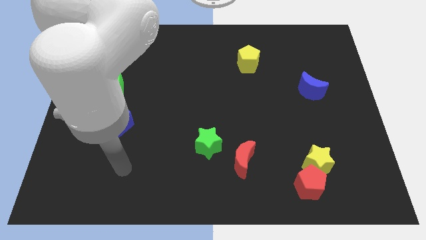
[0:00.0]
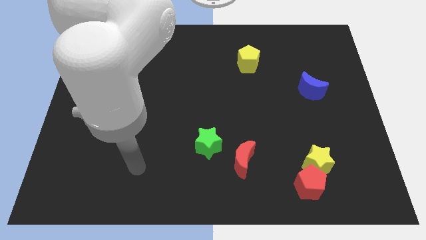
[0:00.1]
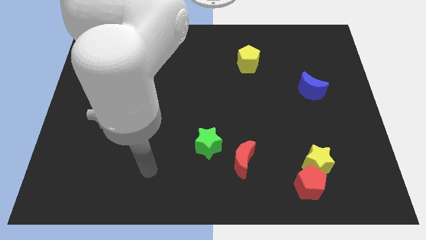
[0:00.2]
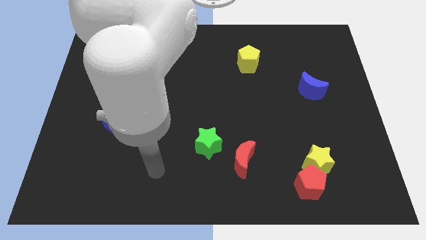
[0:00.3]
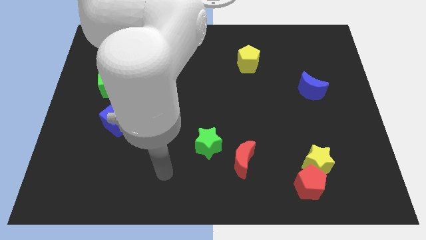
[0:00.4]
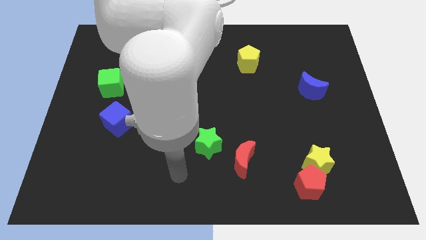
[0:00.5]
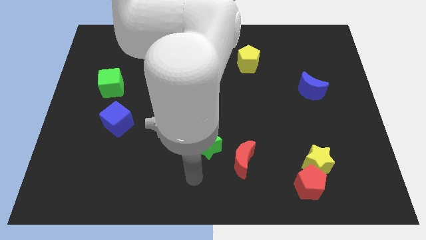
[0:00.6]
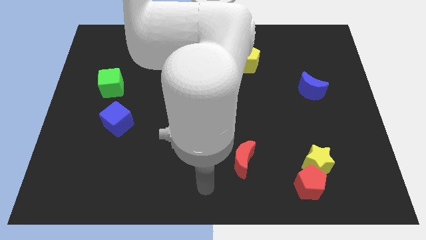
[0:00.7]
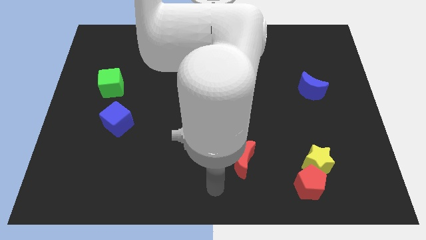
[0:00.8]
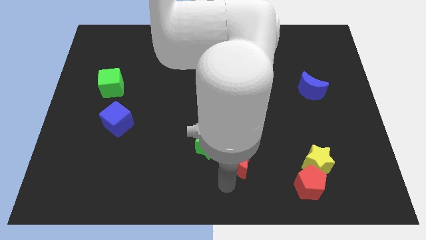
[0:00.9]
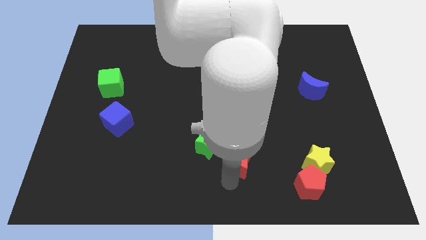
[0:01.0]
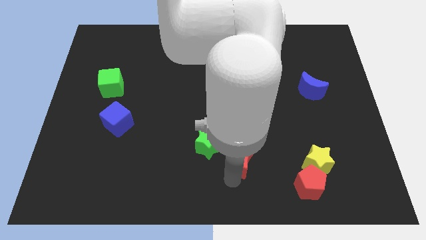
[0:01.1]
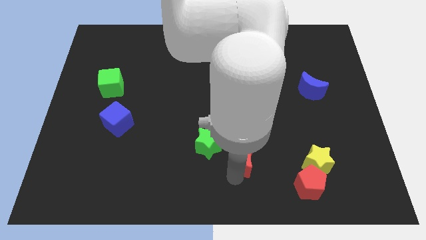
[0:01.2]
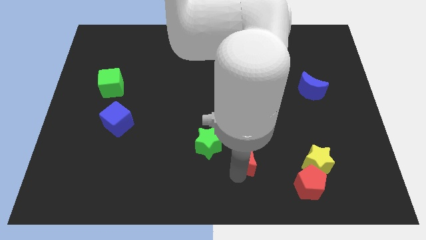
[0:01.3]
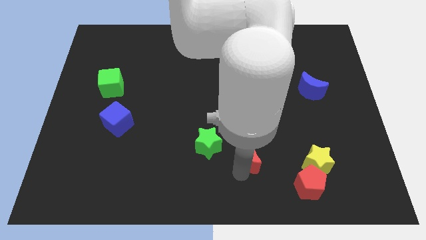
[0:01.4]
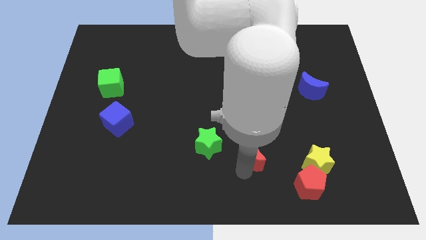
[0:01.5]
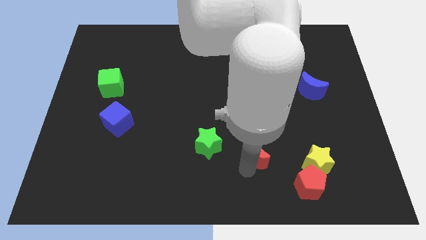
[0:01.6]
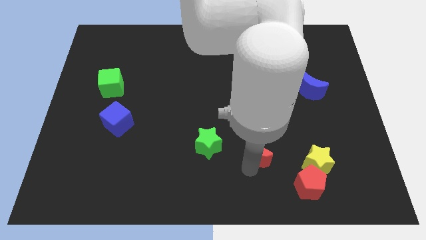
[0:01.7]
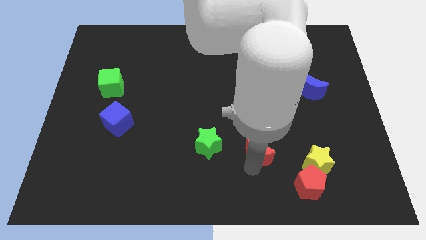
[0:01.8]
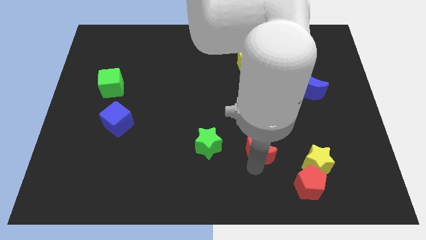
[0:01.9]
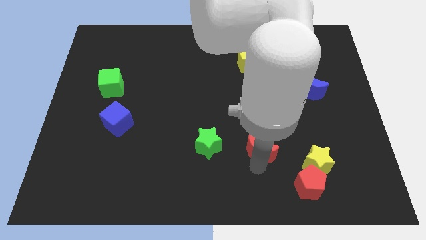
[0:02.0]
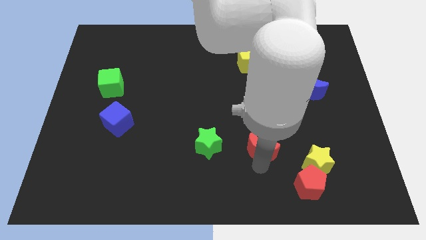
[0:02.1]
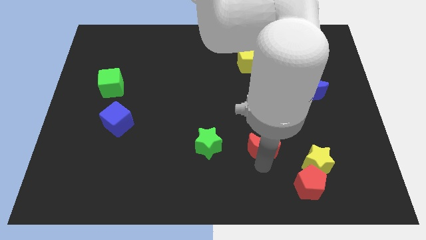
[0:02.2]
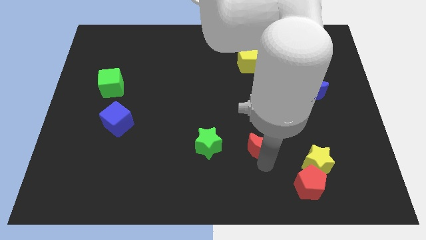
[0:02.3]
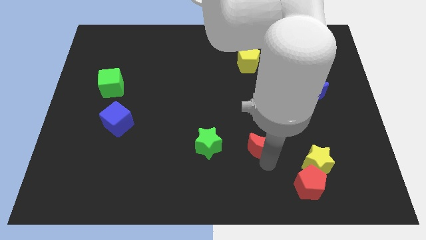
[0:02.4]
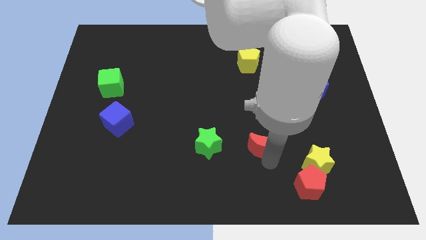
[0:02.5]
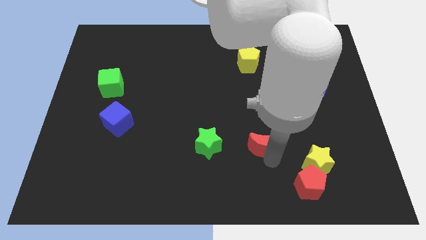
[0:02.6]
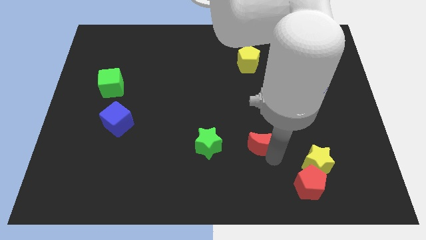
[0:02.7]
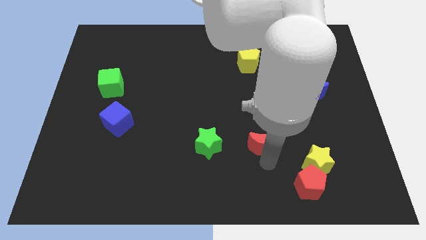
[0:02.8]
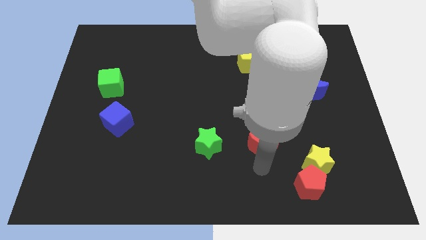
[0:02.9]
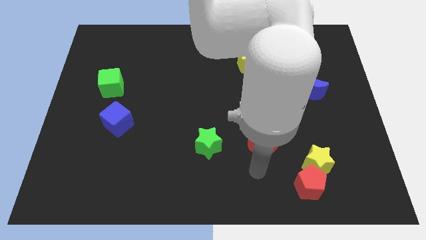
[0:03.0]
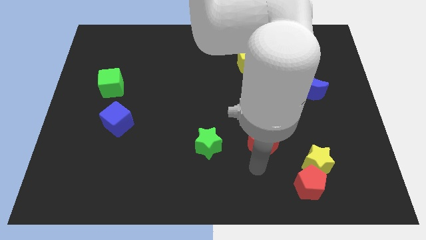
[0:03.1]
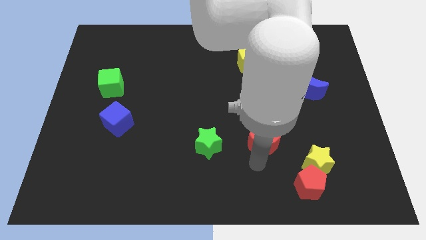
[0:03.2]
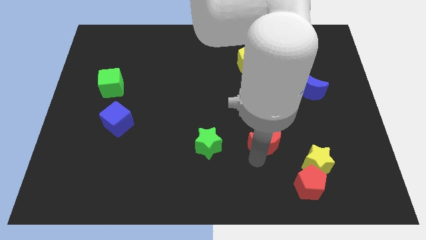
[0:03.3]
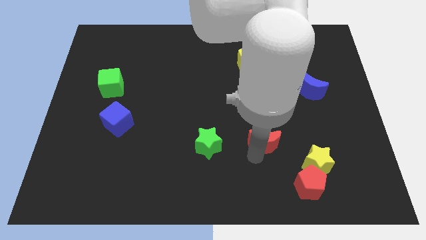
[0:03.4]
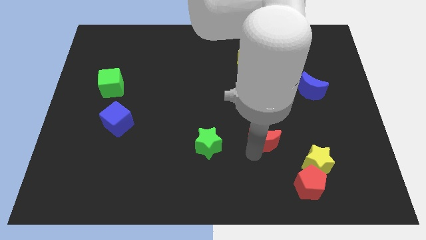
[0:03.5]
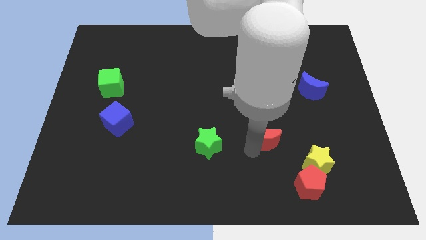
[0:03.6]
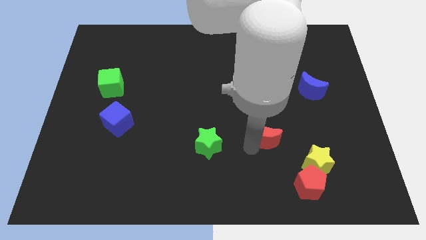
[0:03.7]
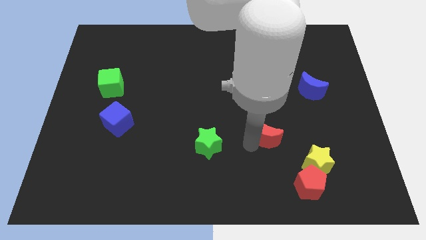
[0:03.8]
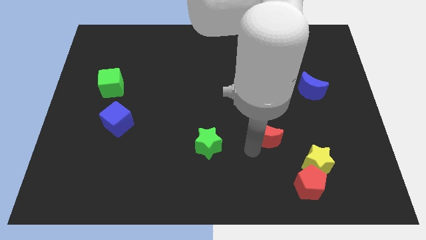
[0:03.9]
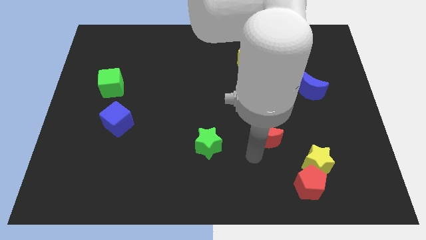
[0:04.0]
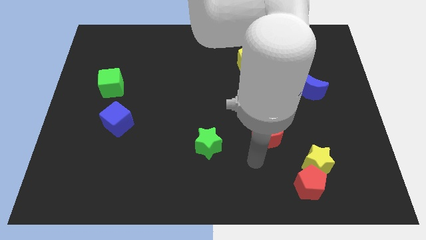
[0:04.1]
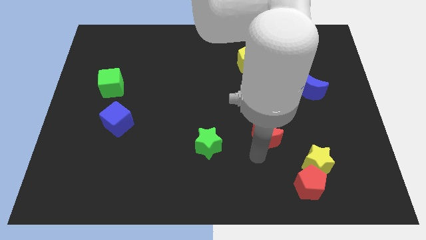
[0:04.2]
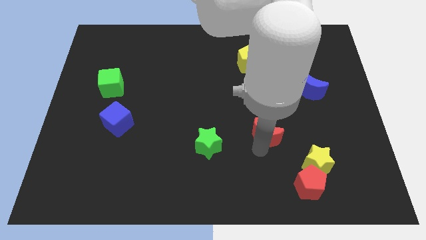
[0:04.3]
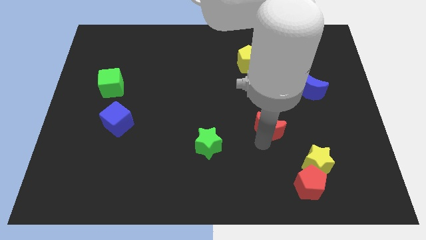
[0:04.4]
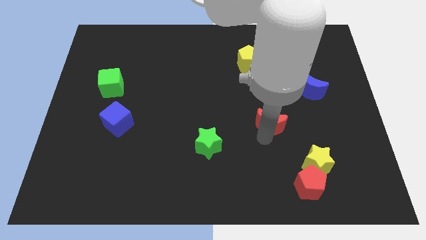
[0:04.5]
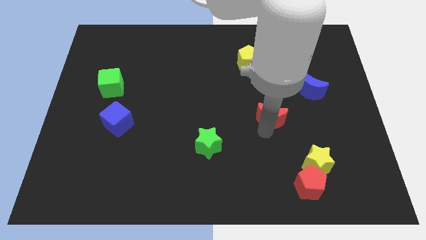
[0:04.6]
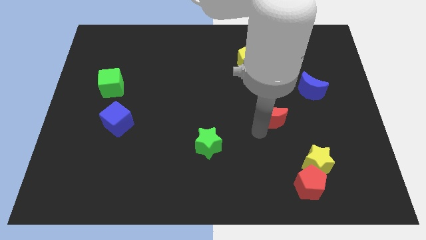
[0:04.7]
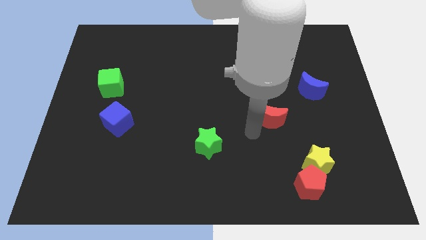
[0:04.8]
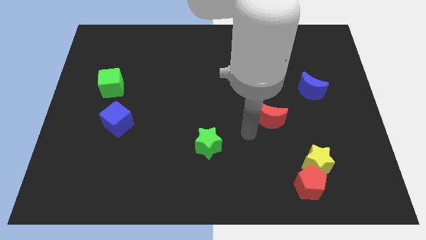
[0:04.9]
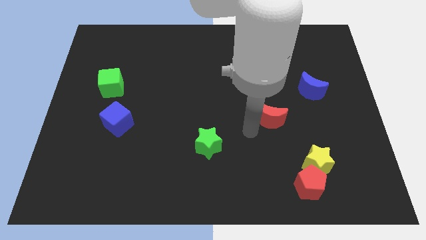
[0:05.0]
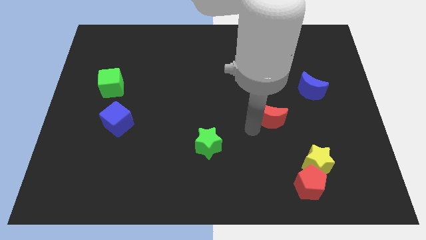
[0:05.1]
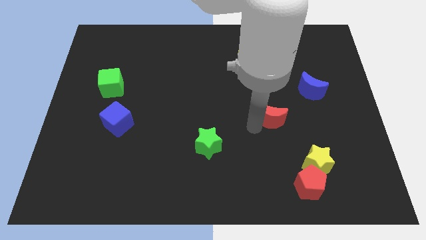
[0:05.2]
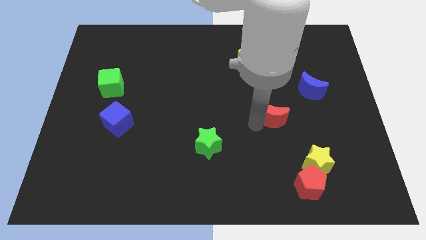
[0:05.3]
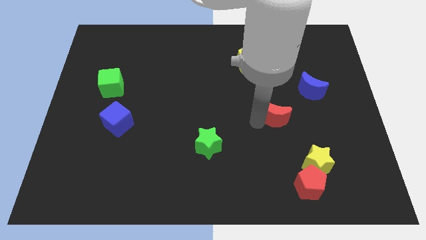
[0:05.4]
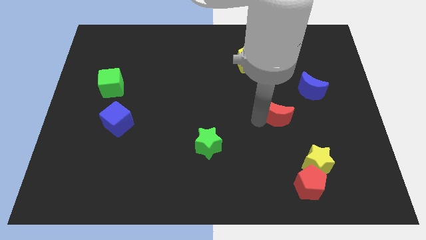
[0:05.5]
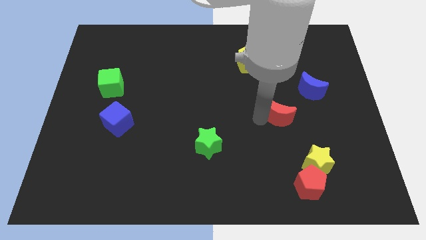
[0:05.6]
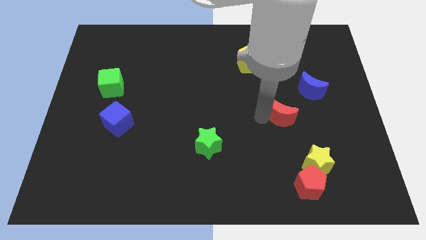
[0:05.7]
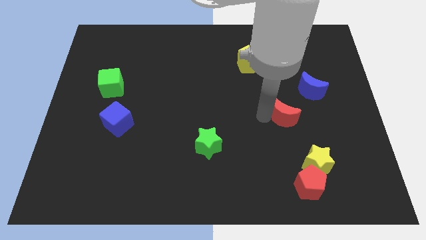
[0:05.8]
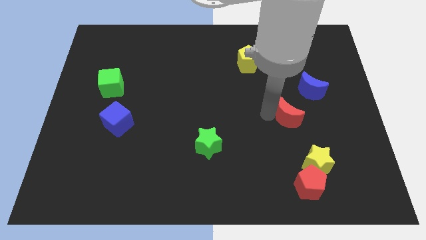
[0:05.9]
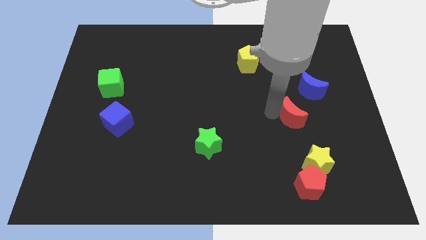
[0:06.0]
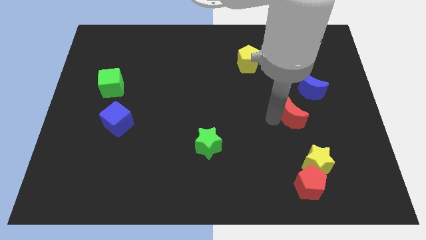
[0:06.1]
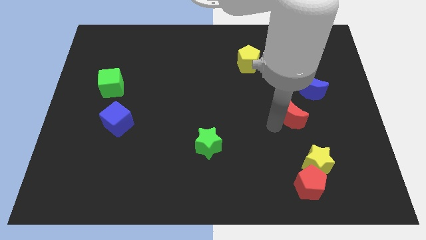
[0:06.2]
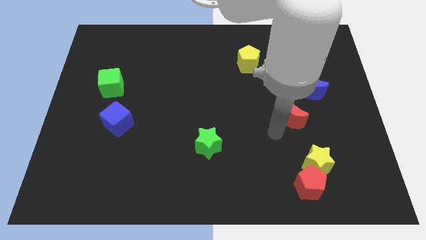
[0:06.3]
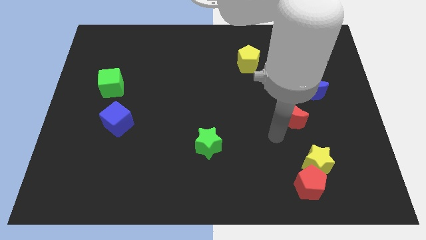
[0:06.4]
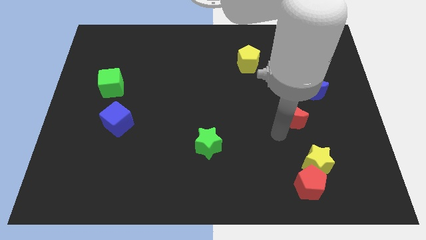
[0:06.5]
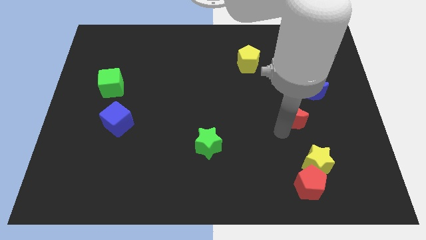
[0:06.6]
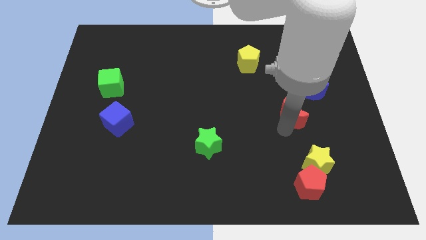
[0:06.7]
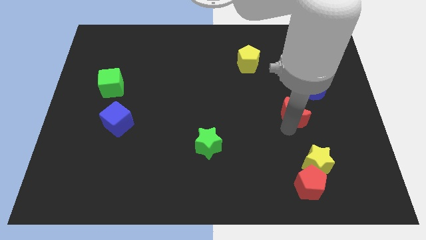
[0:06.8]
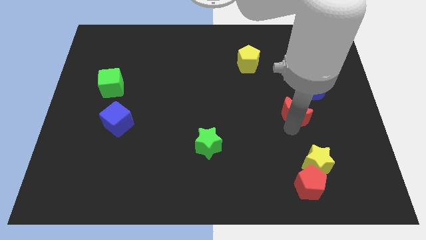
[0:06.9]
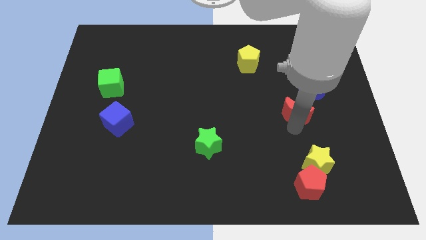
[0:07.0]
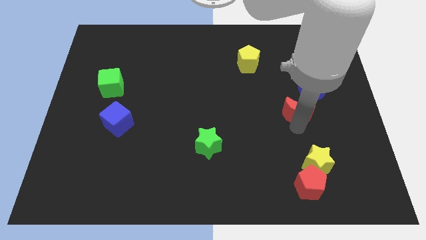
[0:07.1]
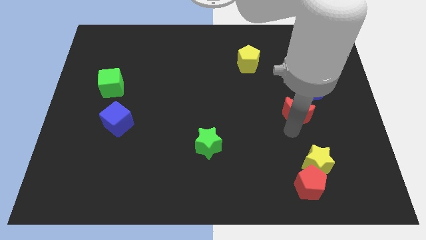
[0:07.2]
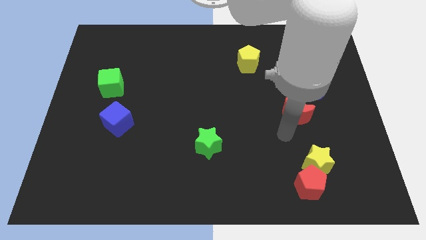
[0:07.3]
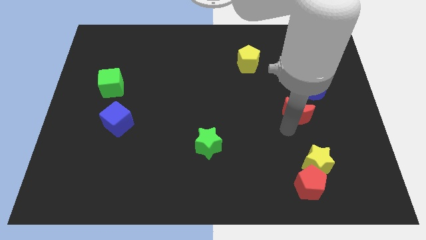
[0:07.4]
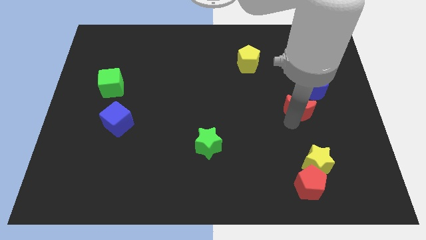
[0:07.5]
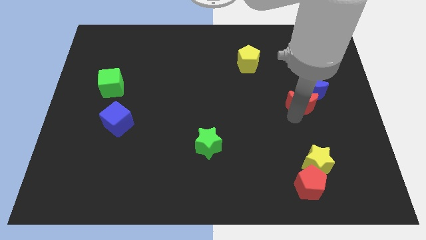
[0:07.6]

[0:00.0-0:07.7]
push the red moon close to the blue moon
